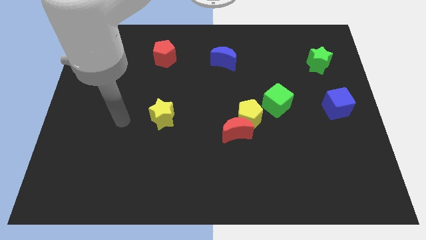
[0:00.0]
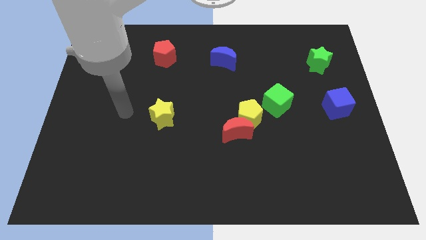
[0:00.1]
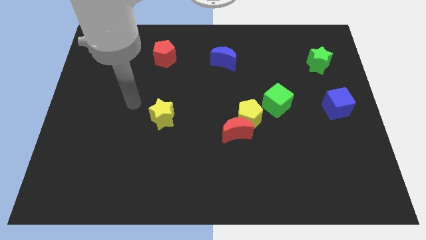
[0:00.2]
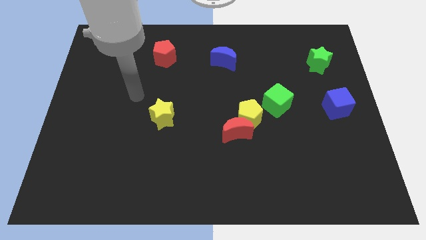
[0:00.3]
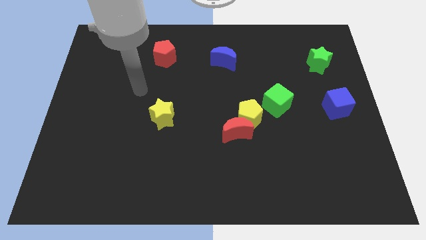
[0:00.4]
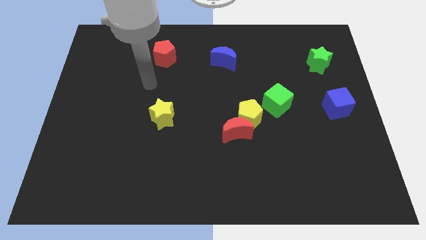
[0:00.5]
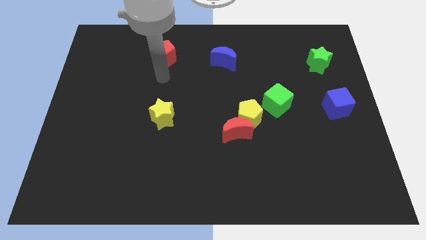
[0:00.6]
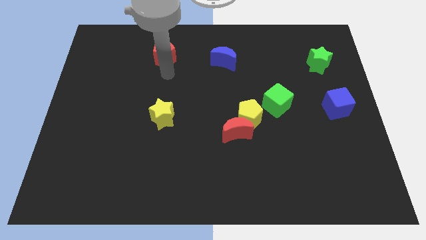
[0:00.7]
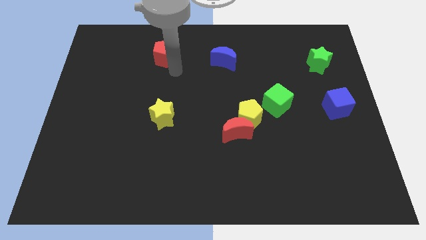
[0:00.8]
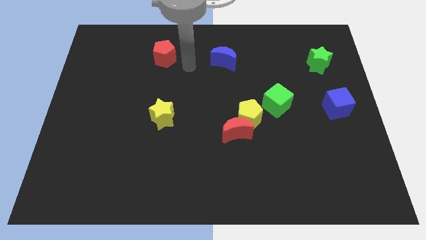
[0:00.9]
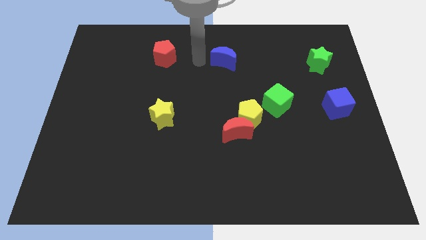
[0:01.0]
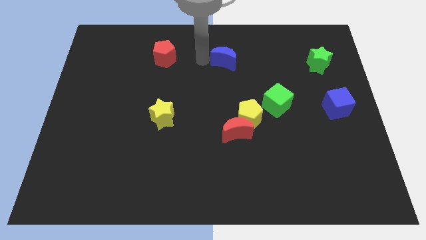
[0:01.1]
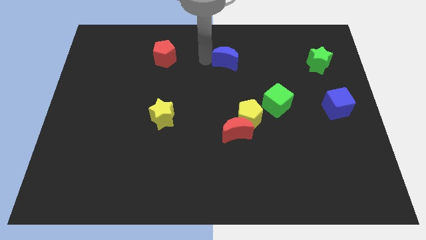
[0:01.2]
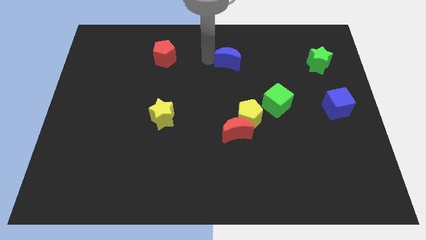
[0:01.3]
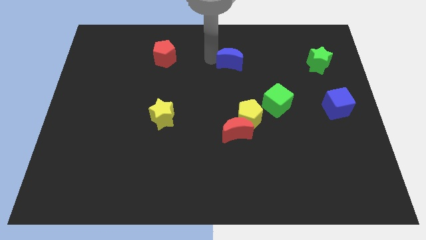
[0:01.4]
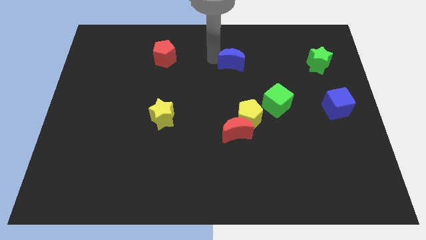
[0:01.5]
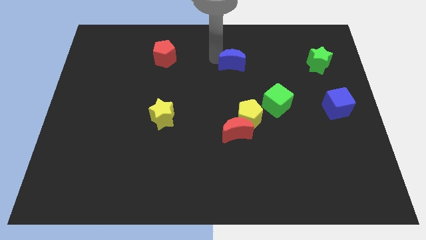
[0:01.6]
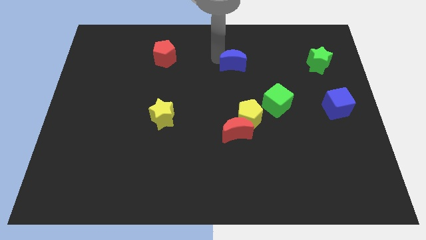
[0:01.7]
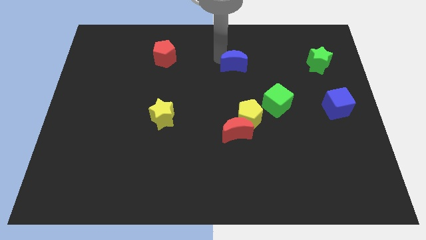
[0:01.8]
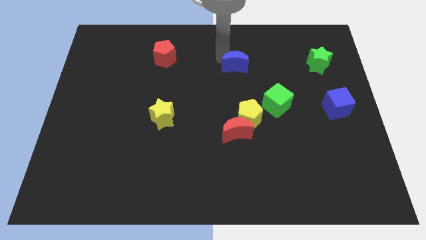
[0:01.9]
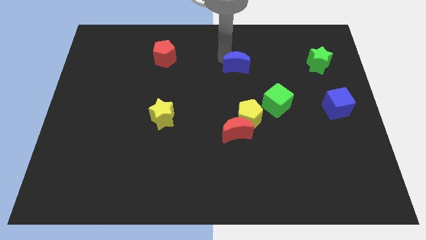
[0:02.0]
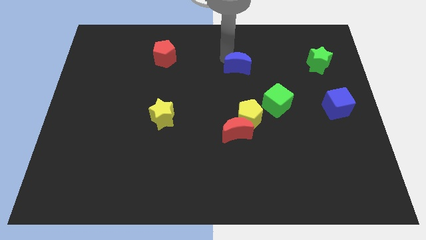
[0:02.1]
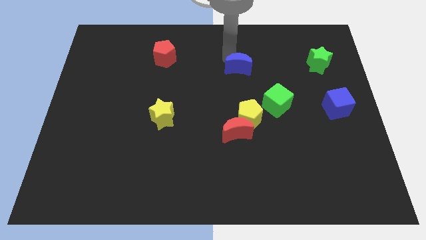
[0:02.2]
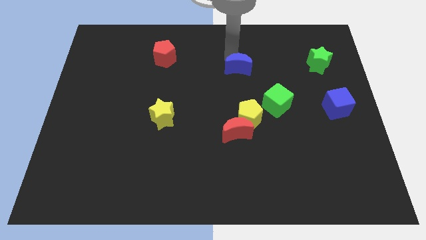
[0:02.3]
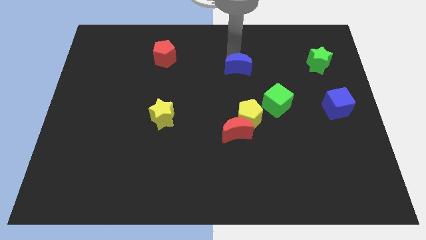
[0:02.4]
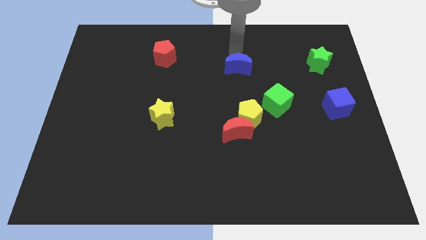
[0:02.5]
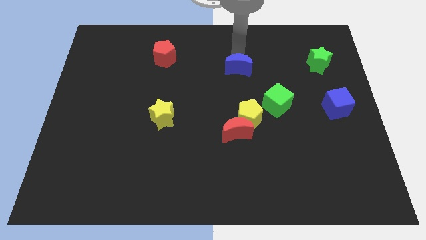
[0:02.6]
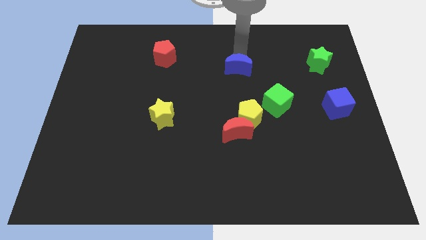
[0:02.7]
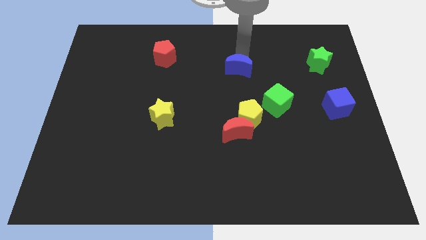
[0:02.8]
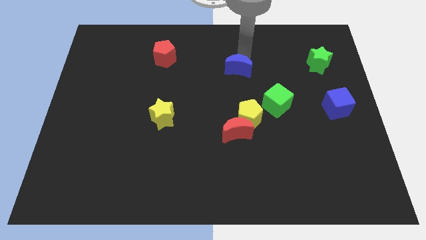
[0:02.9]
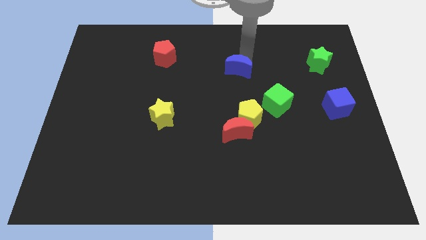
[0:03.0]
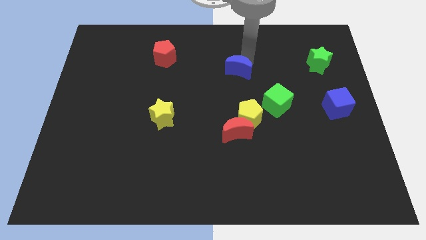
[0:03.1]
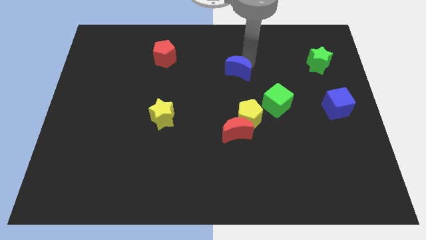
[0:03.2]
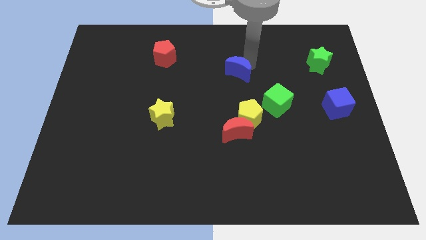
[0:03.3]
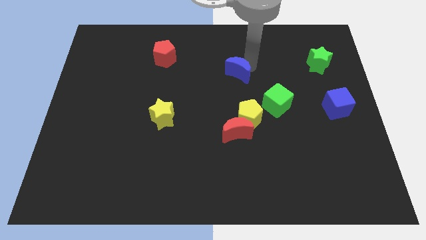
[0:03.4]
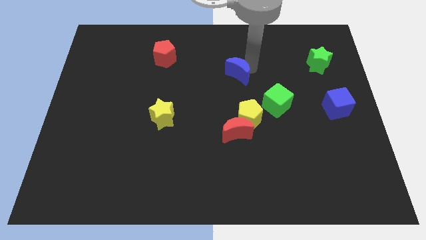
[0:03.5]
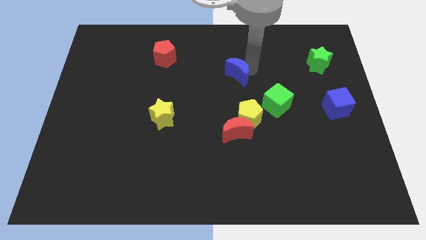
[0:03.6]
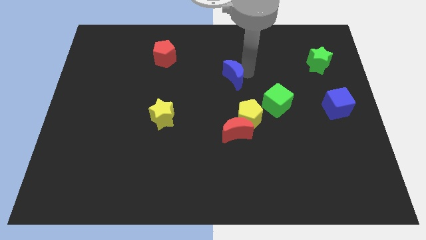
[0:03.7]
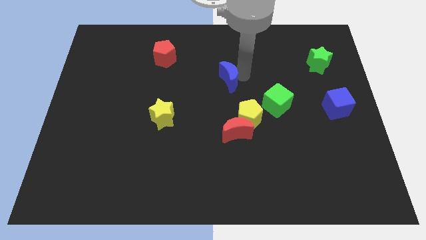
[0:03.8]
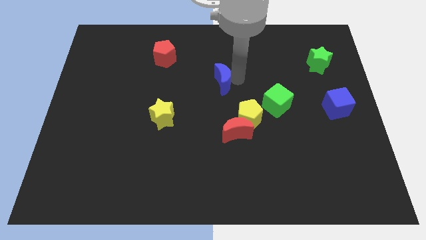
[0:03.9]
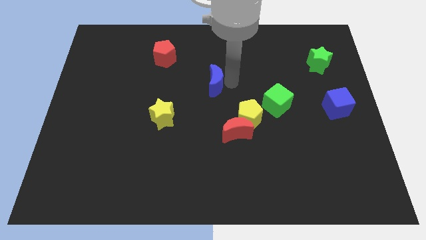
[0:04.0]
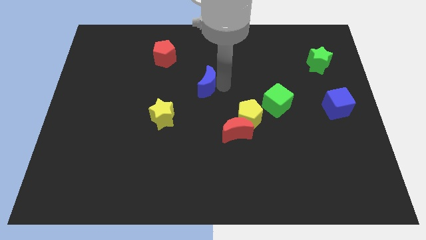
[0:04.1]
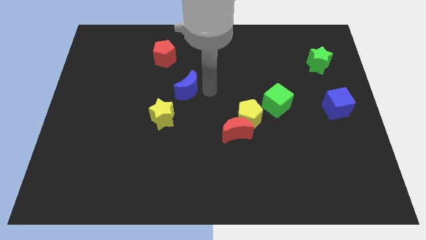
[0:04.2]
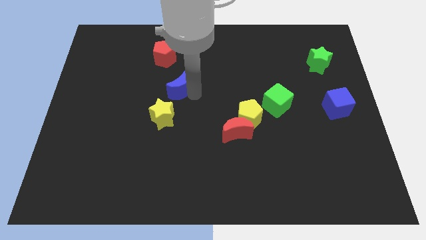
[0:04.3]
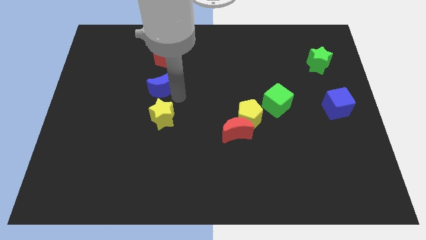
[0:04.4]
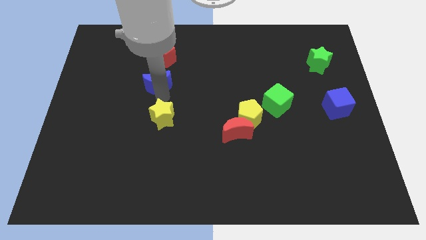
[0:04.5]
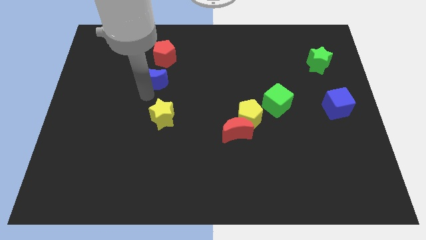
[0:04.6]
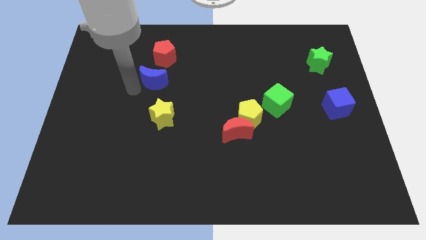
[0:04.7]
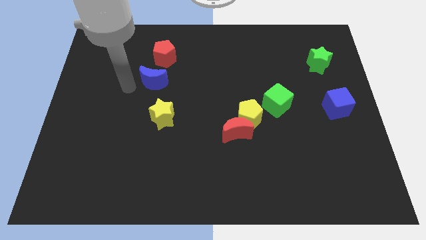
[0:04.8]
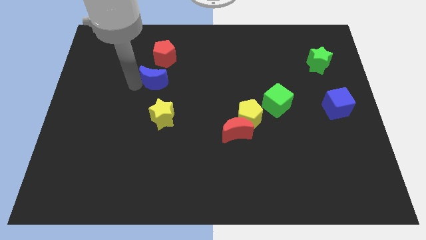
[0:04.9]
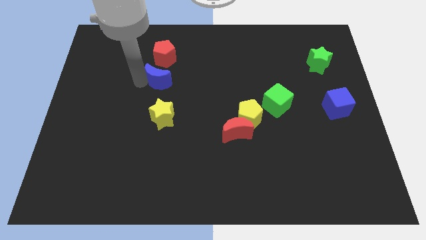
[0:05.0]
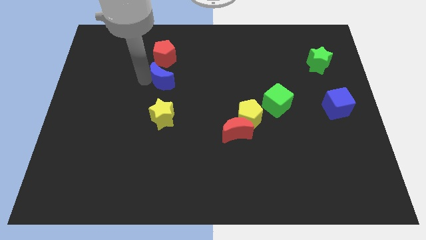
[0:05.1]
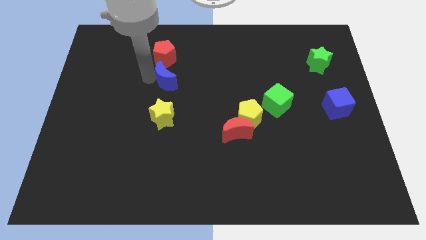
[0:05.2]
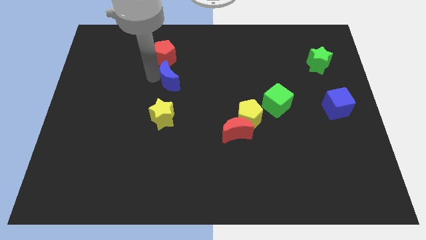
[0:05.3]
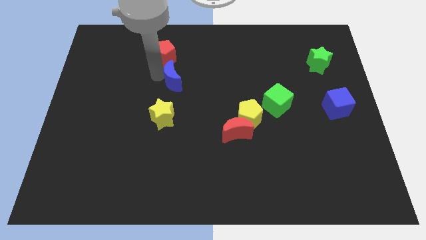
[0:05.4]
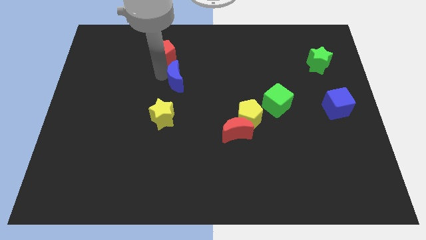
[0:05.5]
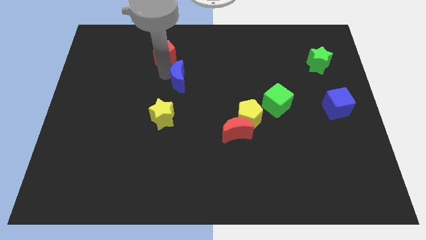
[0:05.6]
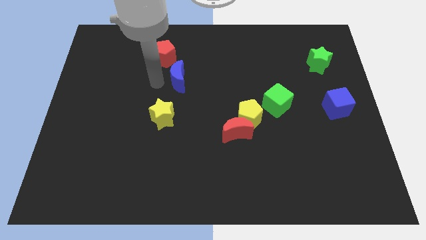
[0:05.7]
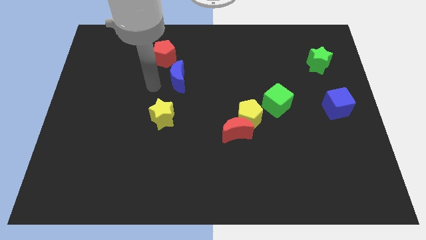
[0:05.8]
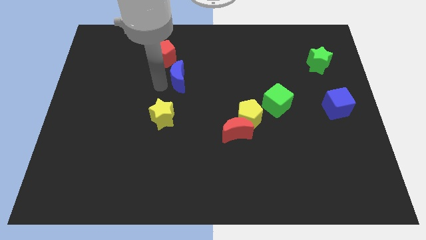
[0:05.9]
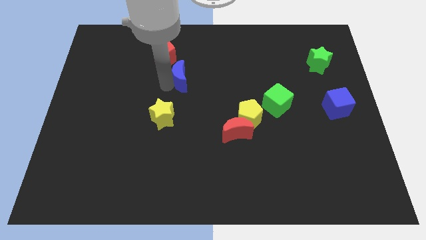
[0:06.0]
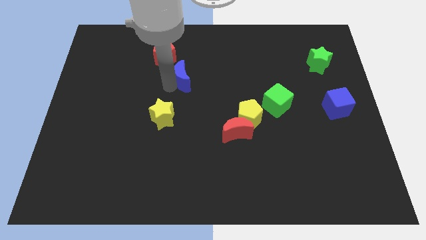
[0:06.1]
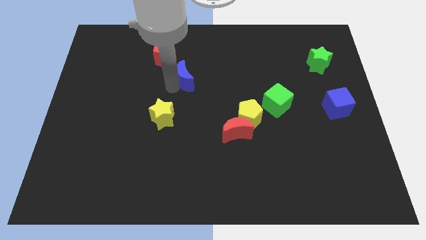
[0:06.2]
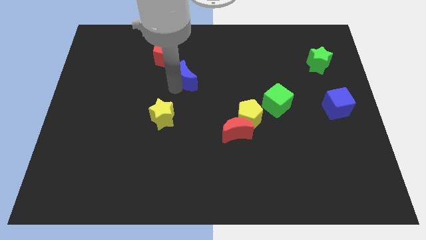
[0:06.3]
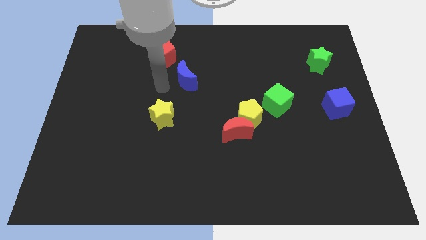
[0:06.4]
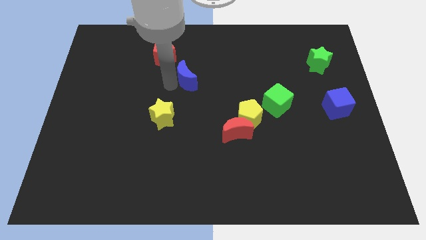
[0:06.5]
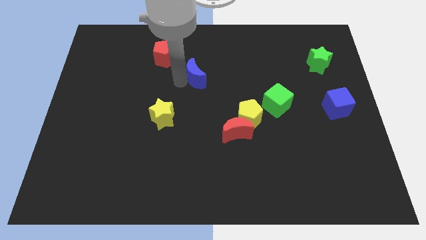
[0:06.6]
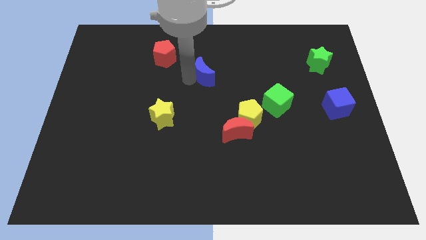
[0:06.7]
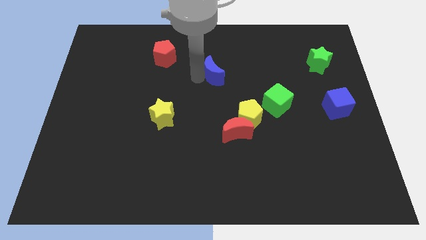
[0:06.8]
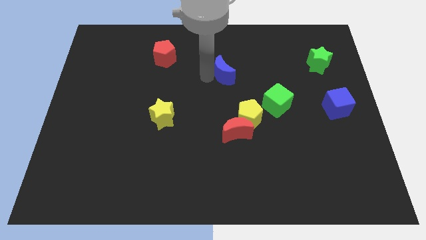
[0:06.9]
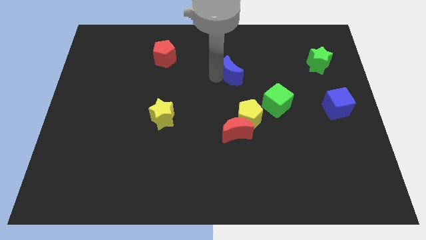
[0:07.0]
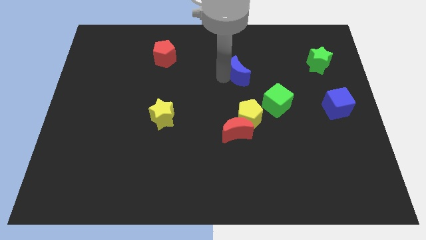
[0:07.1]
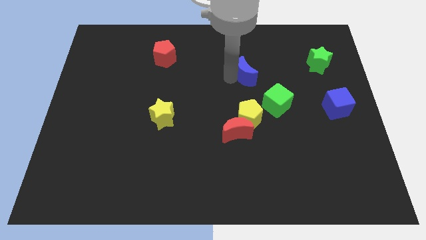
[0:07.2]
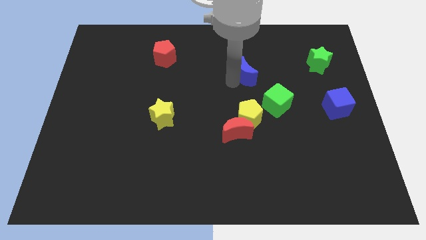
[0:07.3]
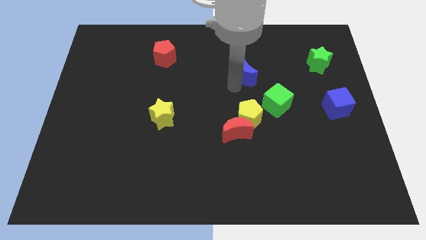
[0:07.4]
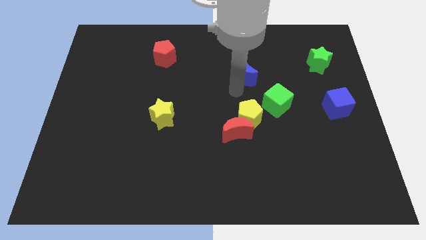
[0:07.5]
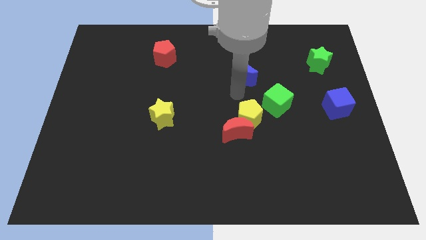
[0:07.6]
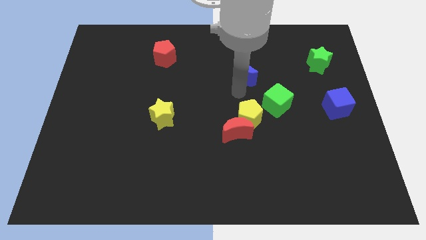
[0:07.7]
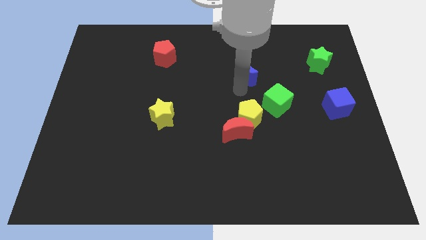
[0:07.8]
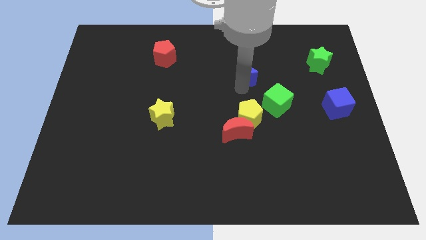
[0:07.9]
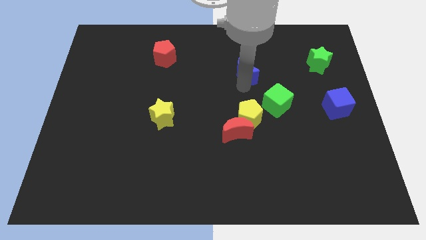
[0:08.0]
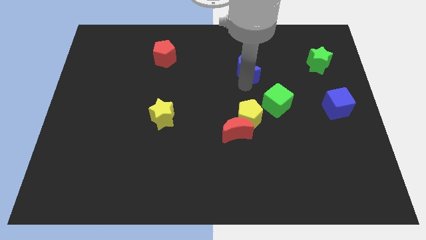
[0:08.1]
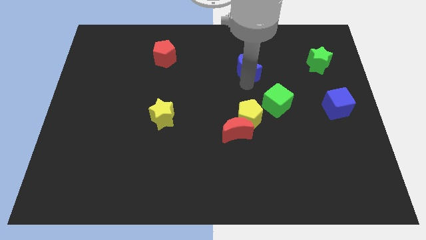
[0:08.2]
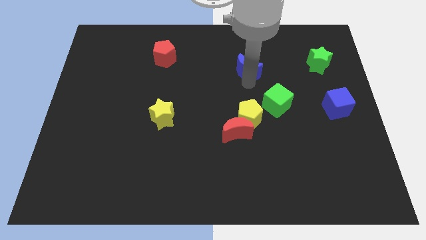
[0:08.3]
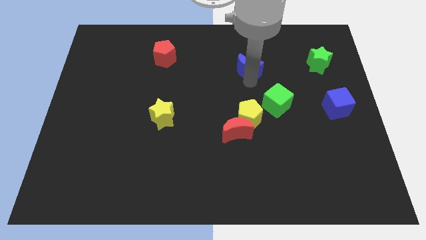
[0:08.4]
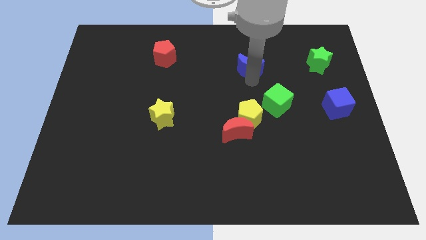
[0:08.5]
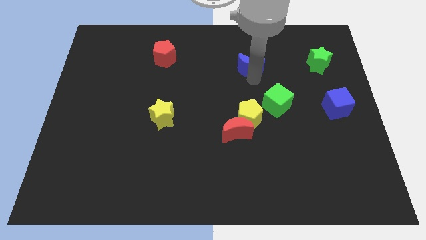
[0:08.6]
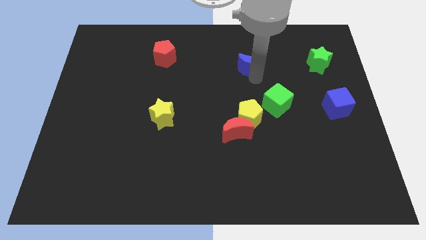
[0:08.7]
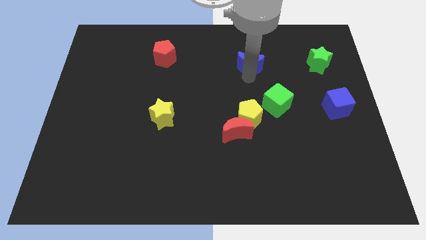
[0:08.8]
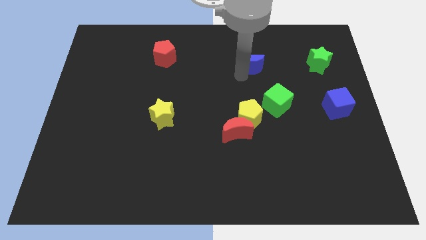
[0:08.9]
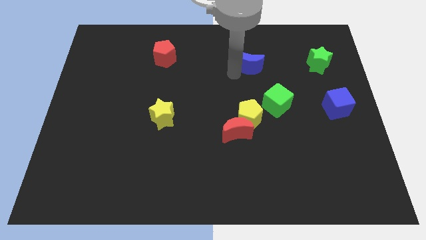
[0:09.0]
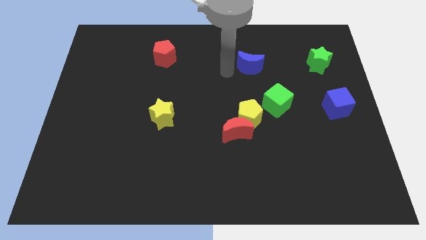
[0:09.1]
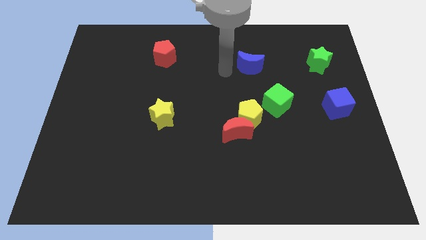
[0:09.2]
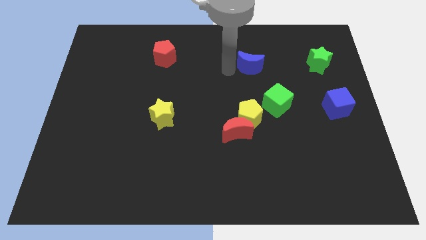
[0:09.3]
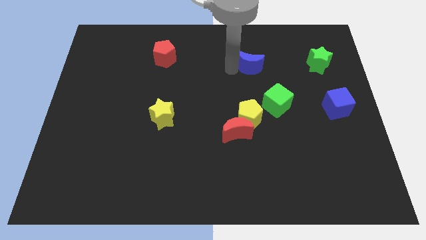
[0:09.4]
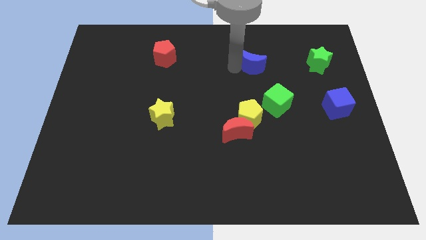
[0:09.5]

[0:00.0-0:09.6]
slightly slide the blue moon to the right
